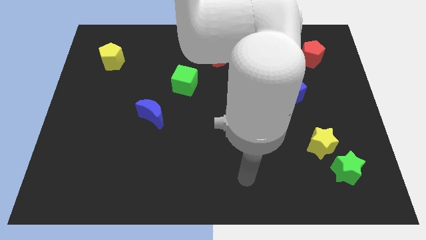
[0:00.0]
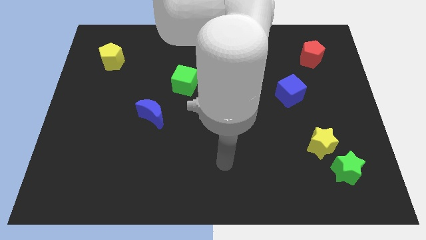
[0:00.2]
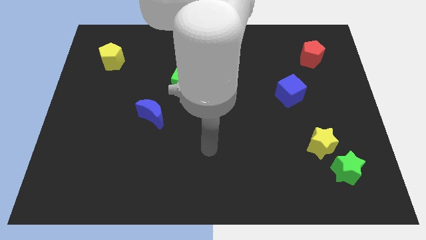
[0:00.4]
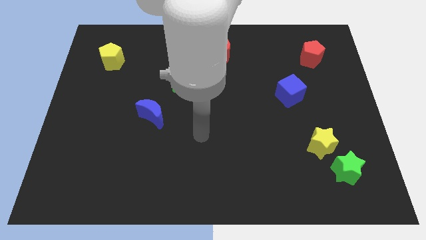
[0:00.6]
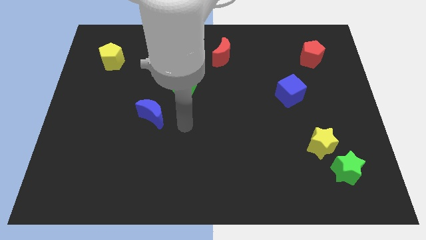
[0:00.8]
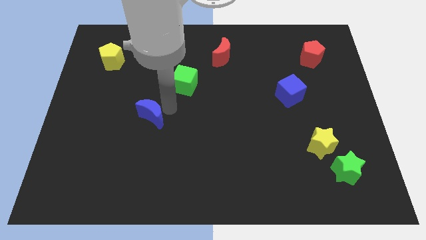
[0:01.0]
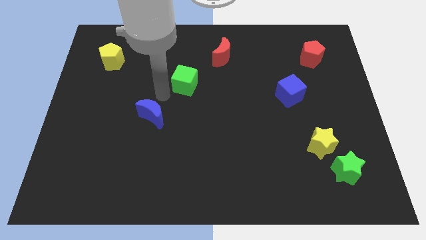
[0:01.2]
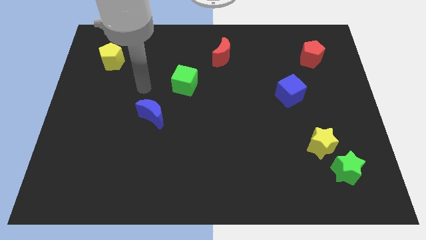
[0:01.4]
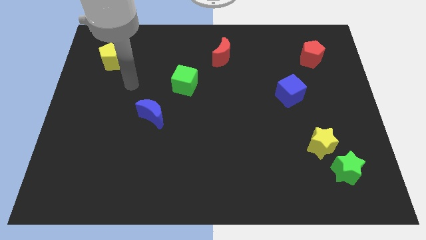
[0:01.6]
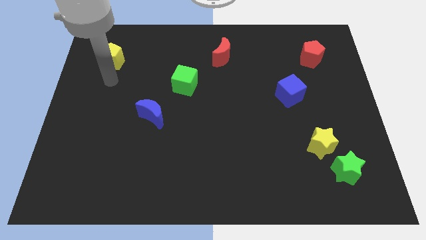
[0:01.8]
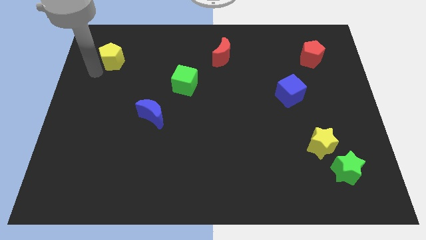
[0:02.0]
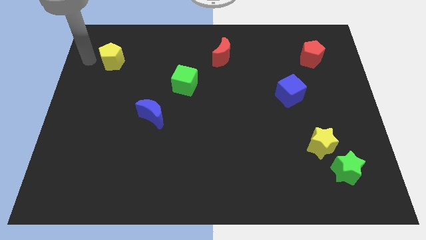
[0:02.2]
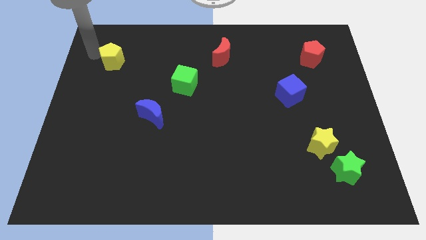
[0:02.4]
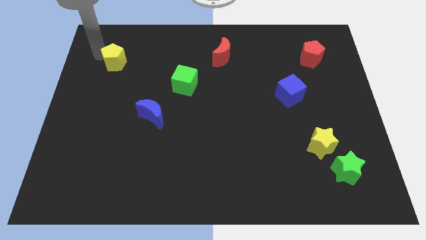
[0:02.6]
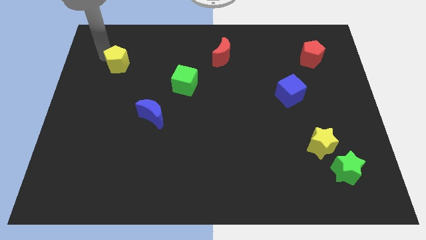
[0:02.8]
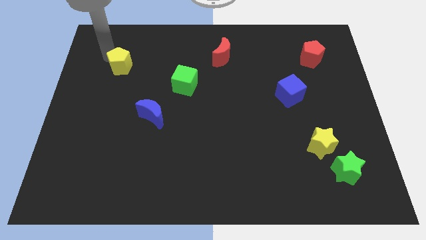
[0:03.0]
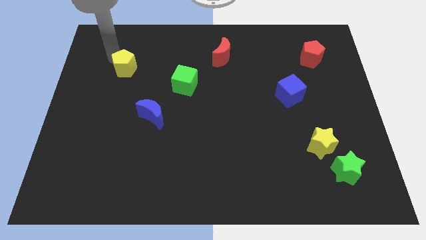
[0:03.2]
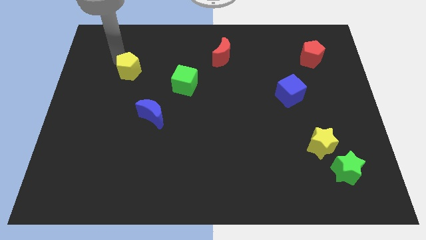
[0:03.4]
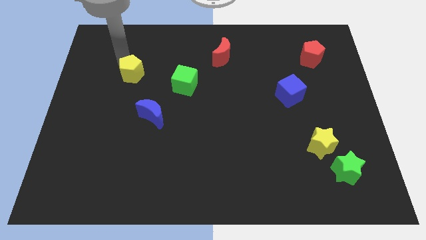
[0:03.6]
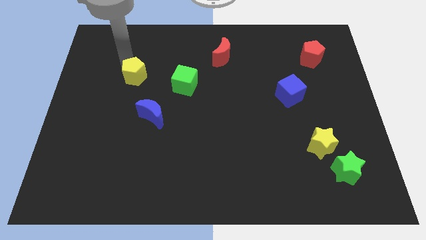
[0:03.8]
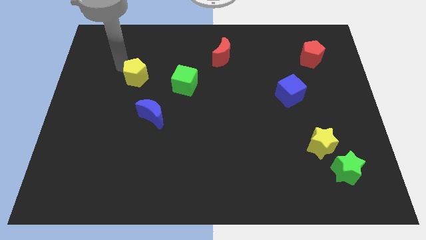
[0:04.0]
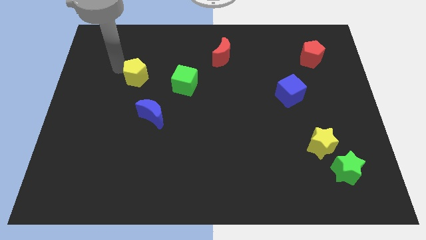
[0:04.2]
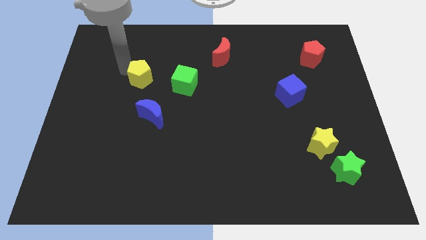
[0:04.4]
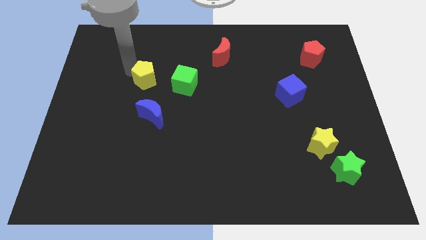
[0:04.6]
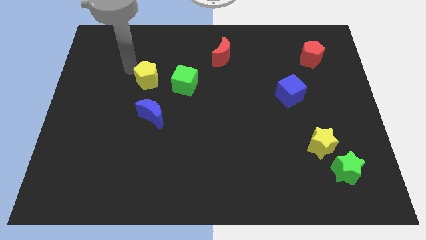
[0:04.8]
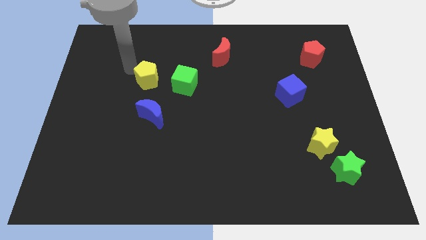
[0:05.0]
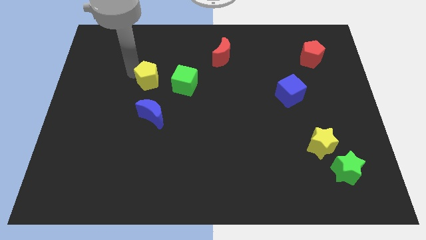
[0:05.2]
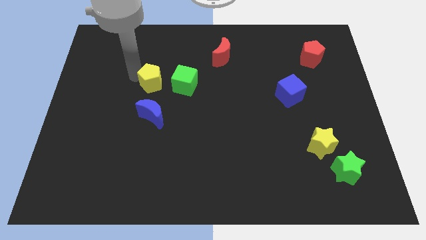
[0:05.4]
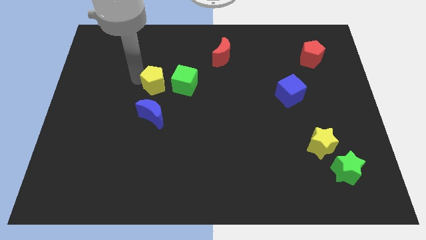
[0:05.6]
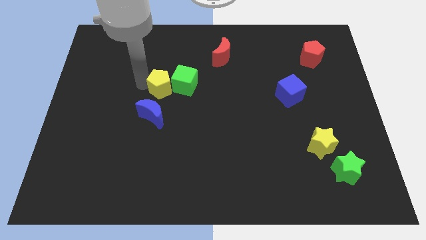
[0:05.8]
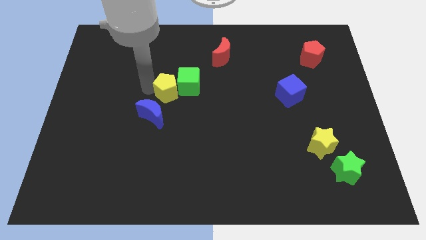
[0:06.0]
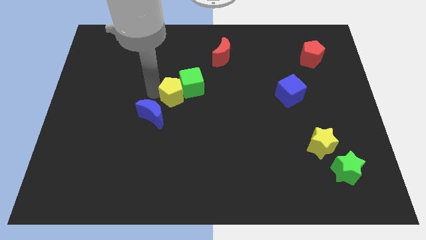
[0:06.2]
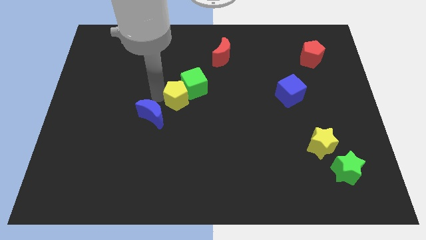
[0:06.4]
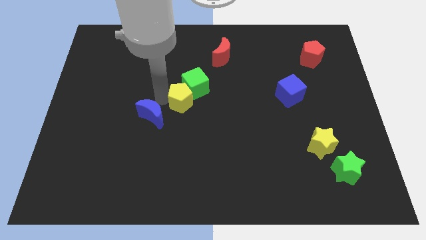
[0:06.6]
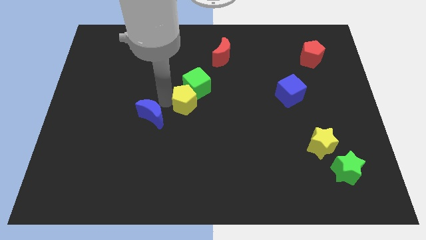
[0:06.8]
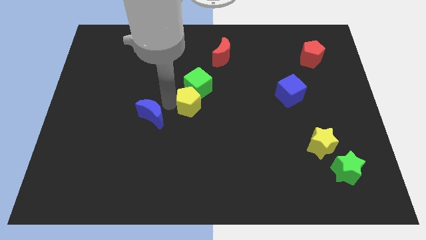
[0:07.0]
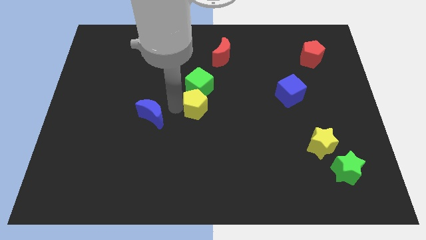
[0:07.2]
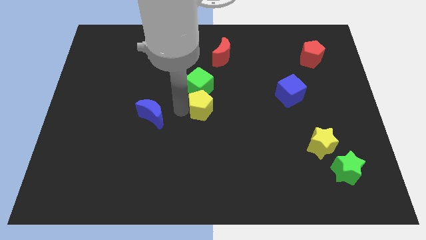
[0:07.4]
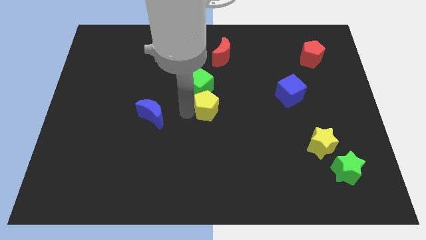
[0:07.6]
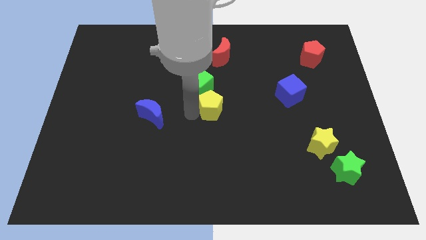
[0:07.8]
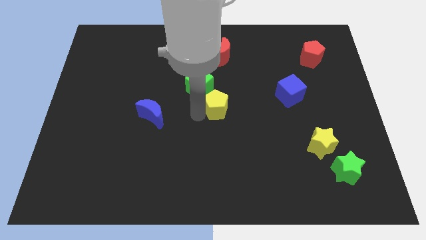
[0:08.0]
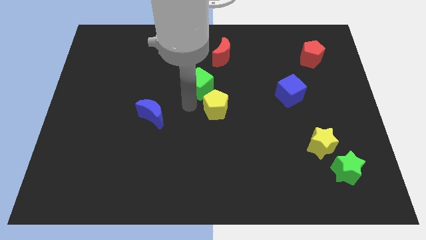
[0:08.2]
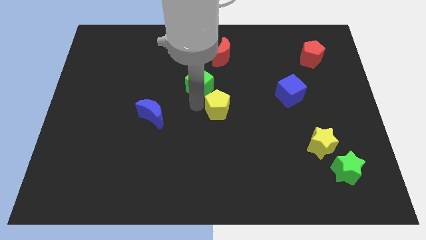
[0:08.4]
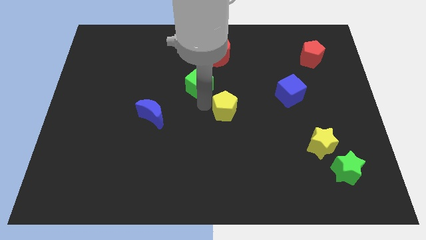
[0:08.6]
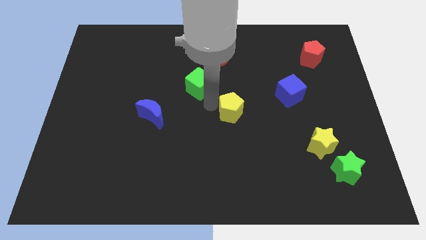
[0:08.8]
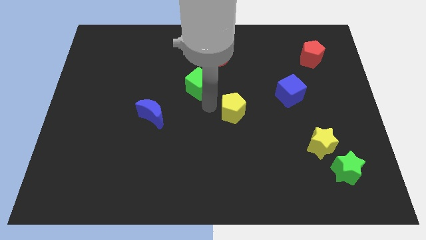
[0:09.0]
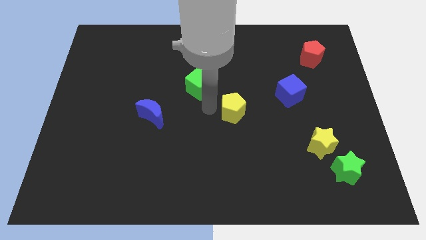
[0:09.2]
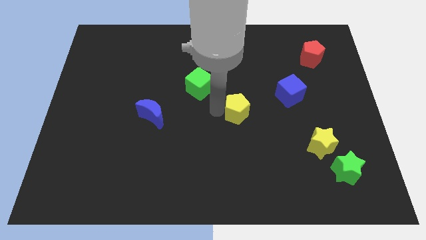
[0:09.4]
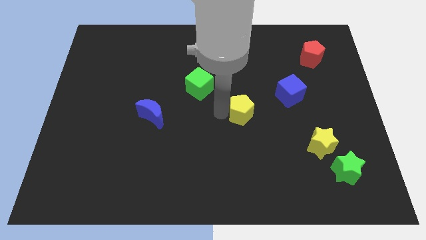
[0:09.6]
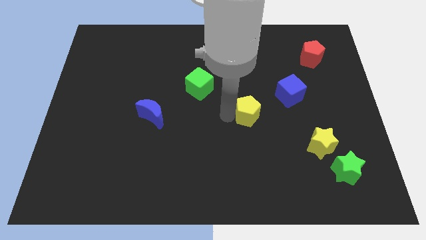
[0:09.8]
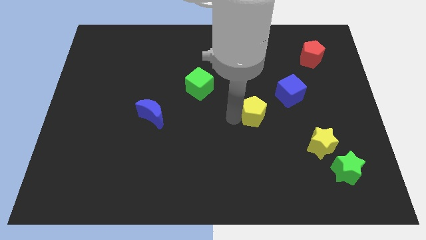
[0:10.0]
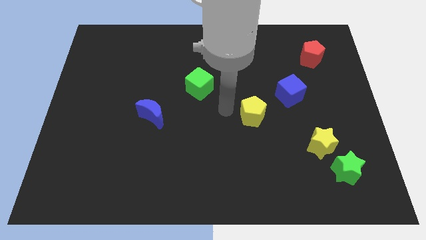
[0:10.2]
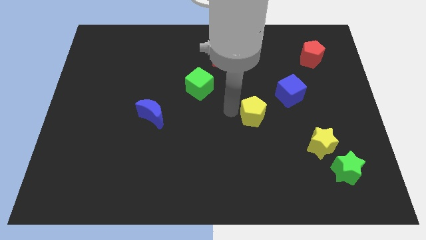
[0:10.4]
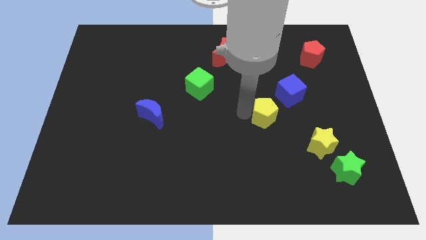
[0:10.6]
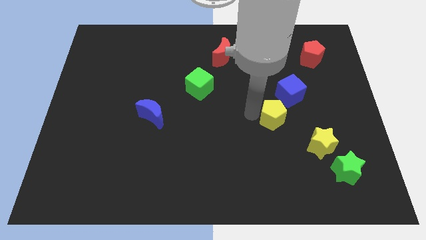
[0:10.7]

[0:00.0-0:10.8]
move the yellow pentagon diagonally up and to the left of the yellow star

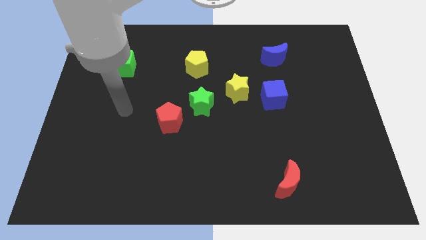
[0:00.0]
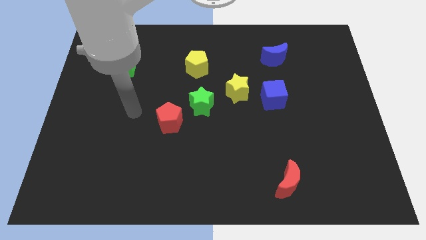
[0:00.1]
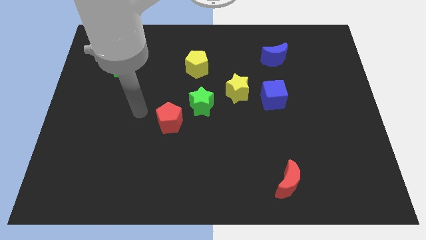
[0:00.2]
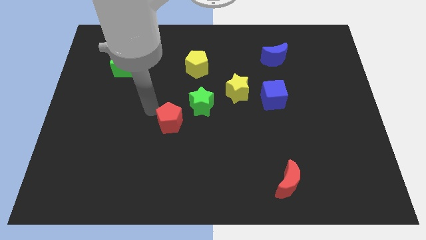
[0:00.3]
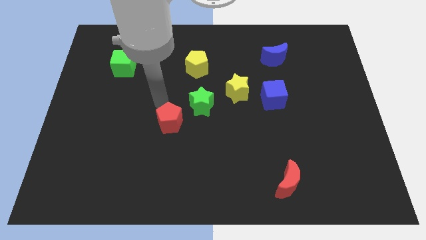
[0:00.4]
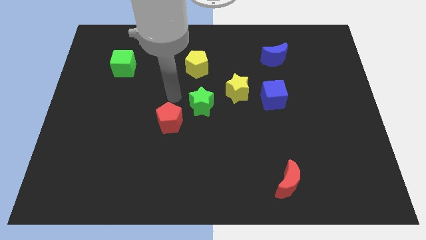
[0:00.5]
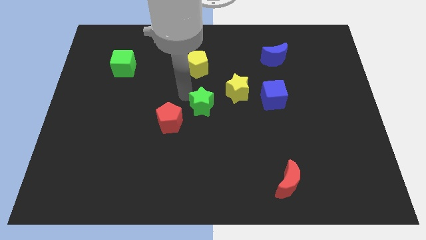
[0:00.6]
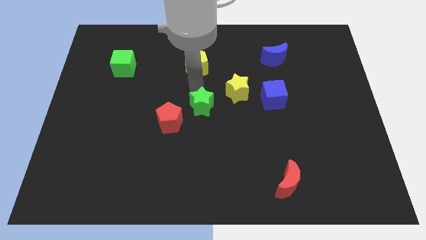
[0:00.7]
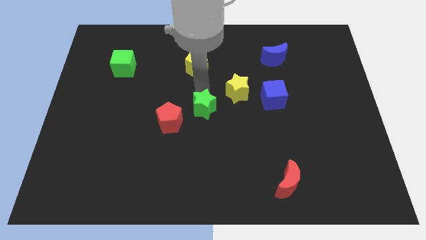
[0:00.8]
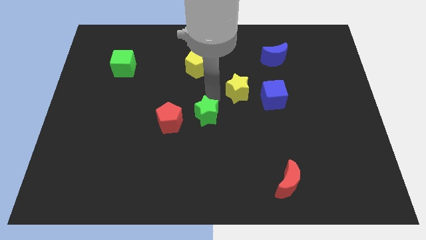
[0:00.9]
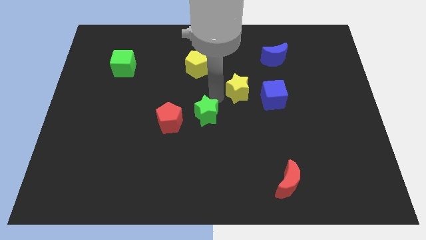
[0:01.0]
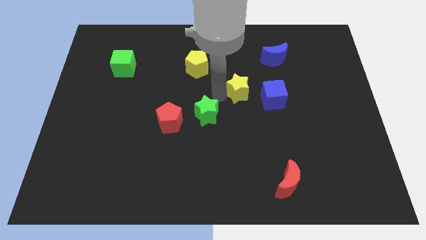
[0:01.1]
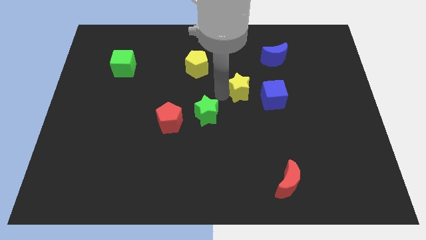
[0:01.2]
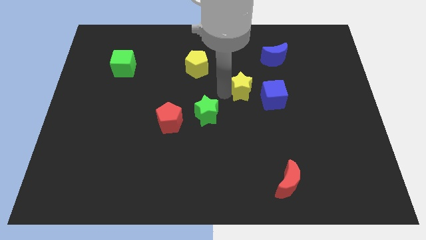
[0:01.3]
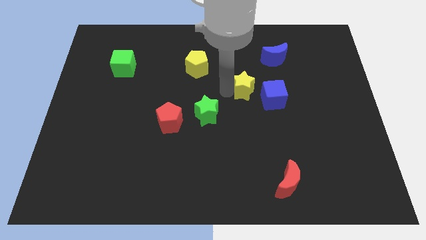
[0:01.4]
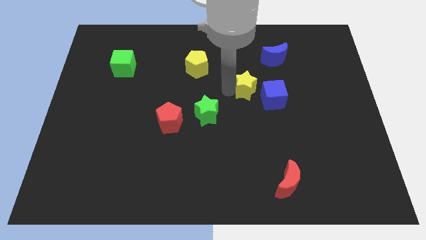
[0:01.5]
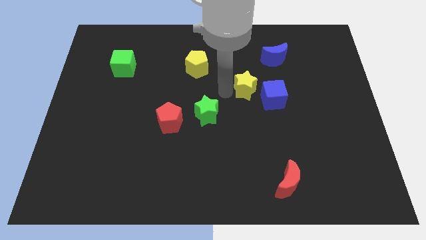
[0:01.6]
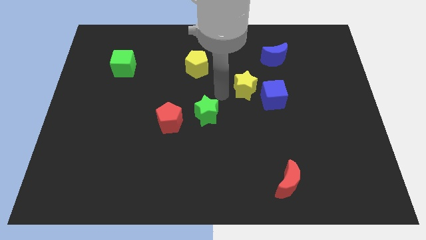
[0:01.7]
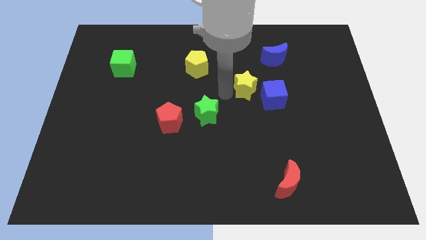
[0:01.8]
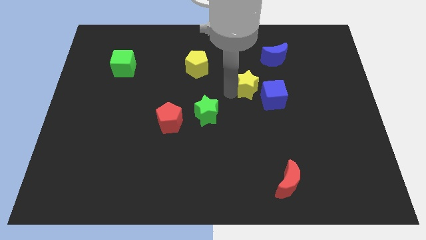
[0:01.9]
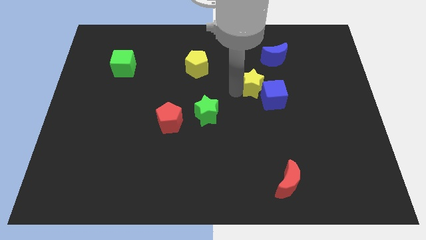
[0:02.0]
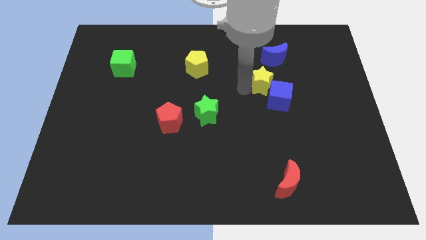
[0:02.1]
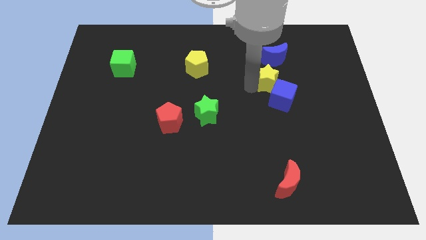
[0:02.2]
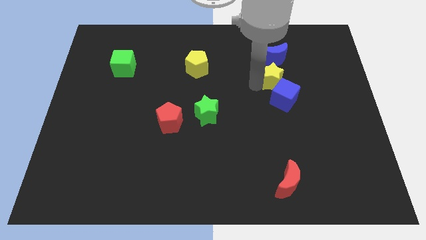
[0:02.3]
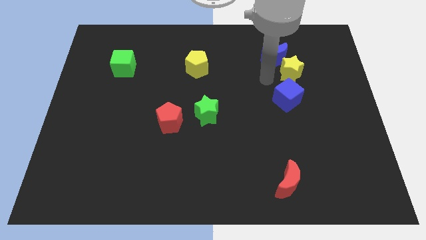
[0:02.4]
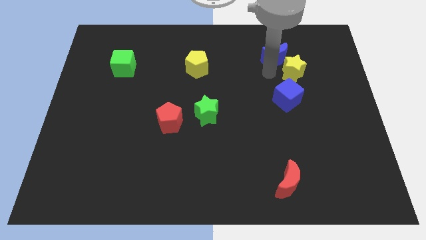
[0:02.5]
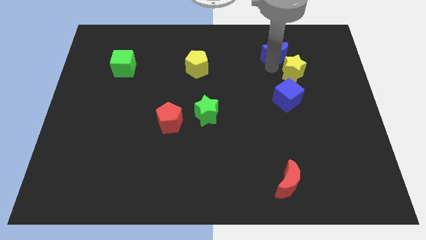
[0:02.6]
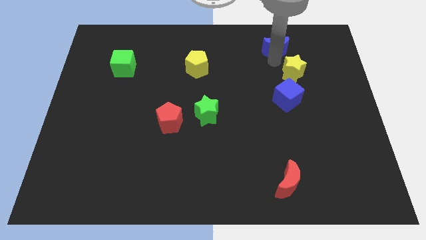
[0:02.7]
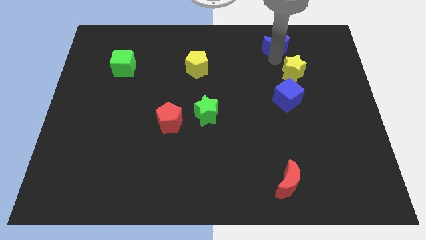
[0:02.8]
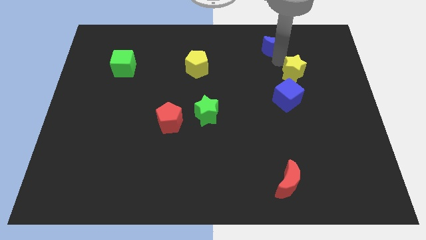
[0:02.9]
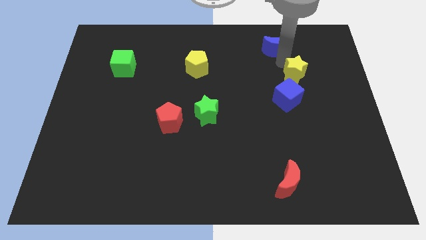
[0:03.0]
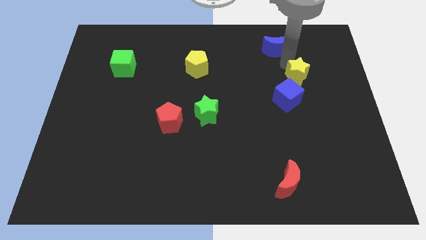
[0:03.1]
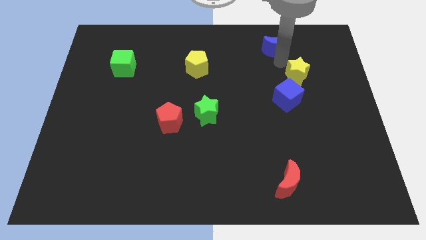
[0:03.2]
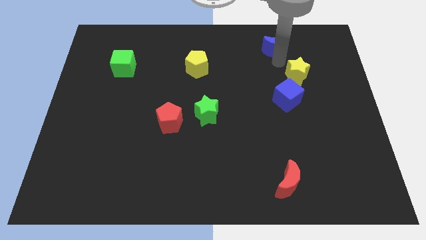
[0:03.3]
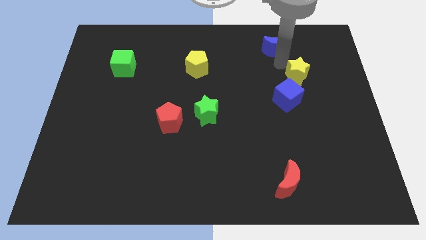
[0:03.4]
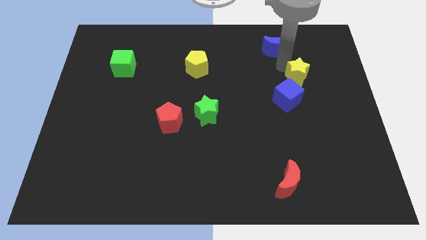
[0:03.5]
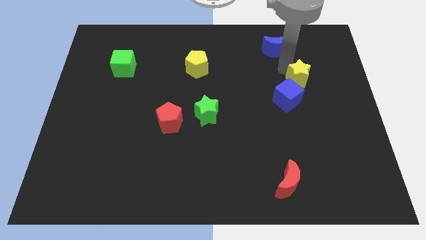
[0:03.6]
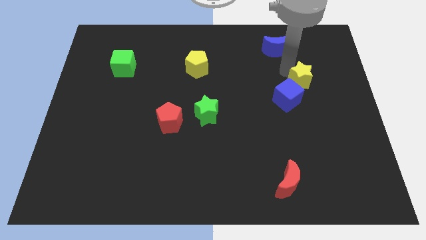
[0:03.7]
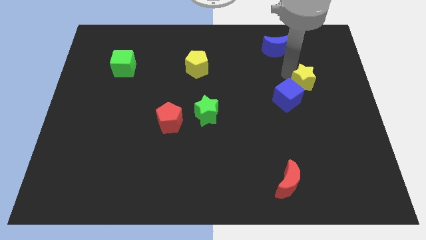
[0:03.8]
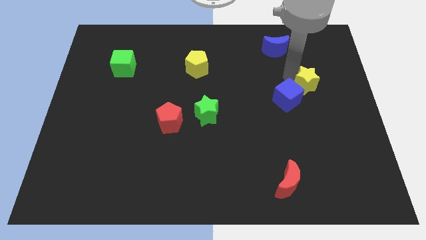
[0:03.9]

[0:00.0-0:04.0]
move the yellow star right of the blue cube
